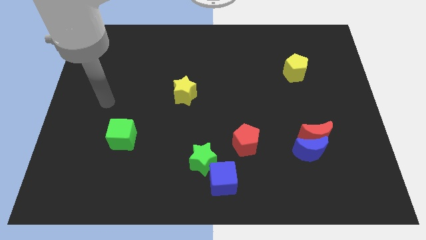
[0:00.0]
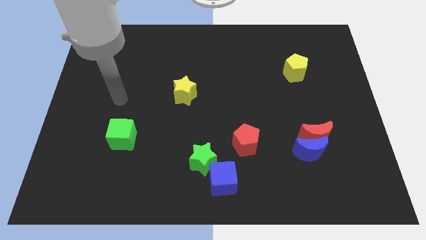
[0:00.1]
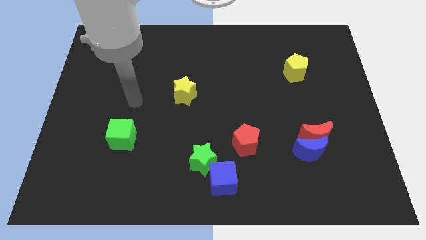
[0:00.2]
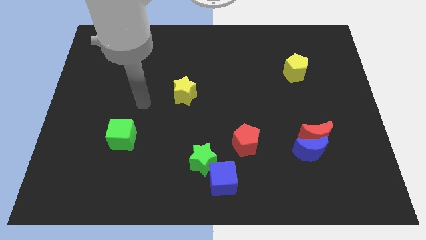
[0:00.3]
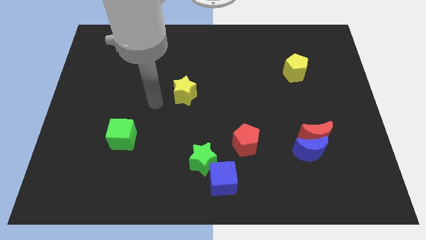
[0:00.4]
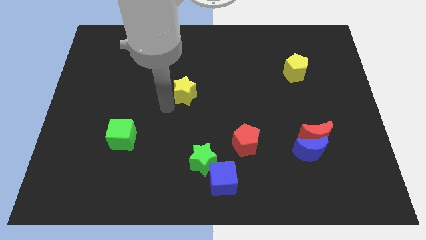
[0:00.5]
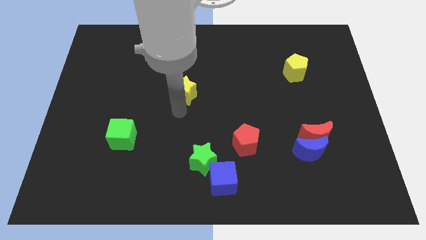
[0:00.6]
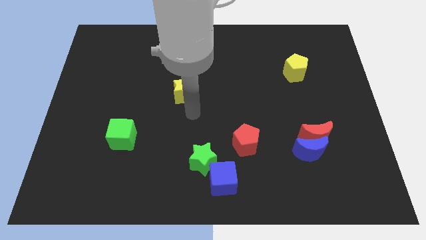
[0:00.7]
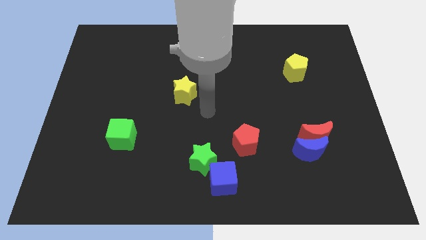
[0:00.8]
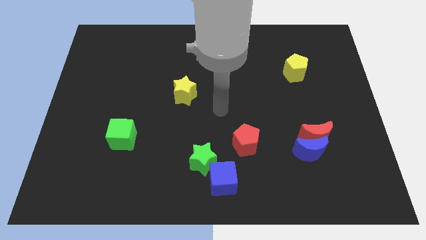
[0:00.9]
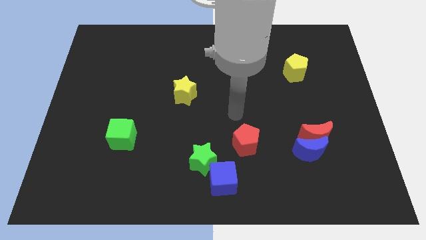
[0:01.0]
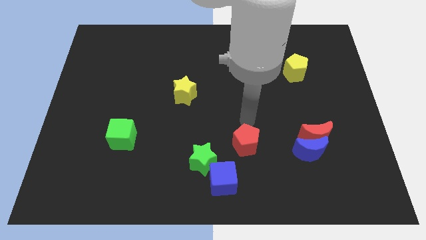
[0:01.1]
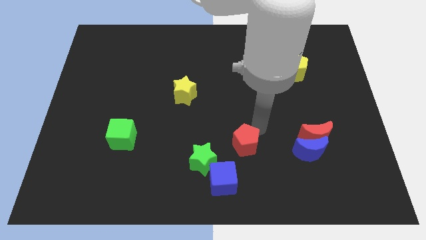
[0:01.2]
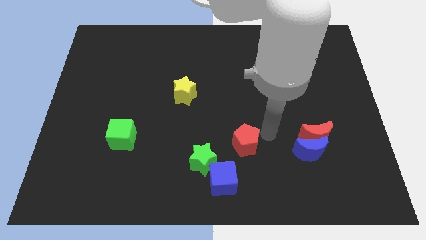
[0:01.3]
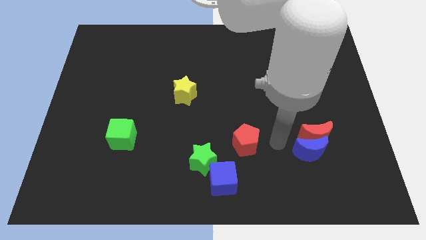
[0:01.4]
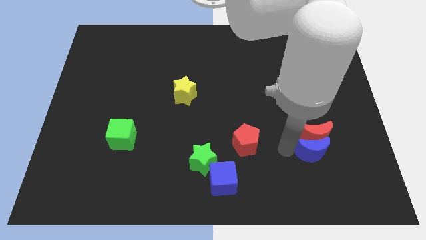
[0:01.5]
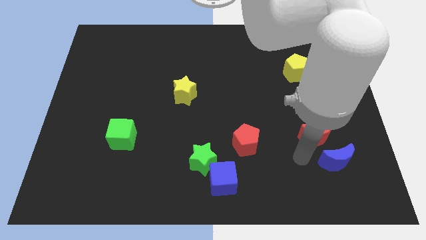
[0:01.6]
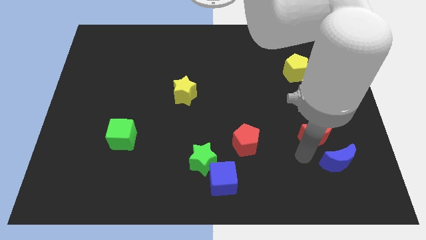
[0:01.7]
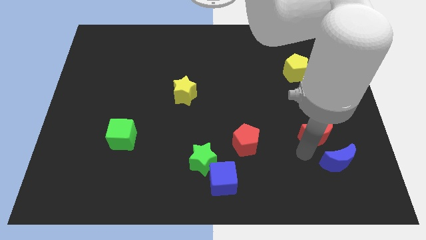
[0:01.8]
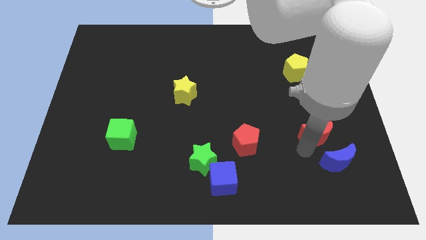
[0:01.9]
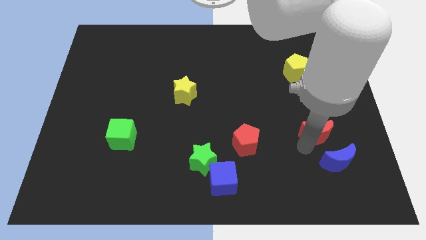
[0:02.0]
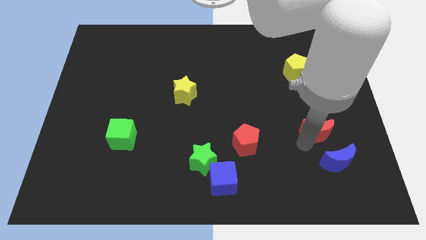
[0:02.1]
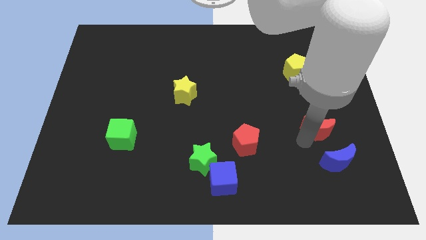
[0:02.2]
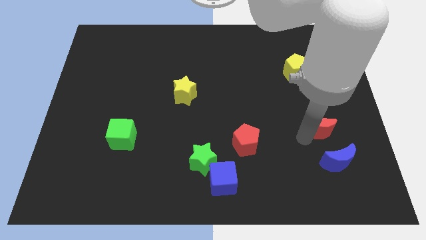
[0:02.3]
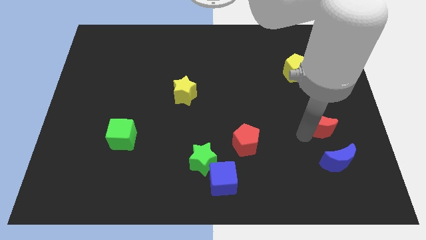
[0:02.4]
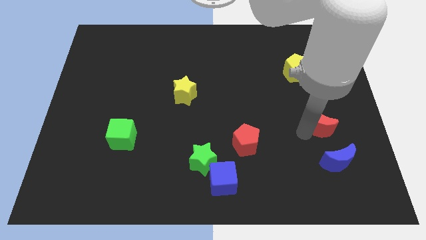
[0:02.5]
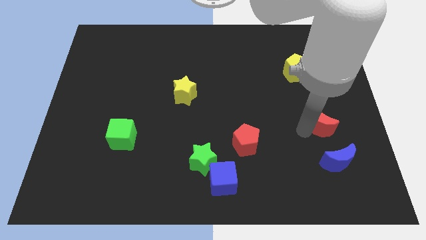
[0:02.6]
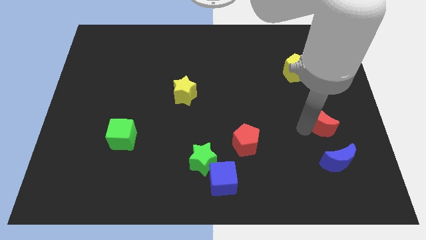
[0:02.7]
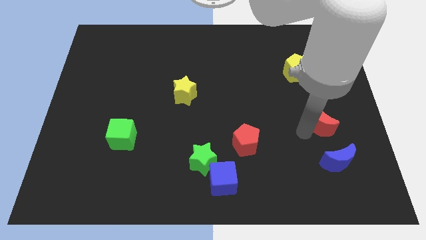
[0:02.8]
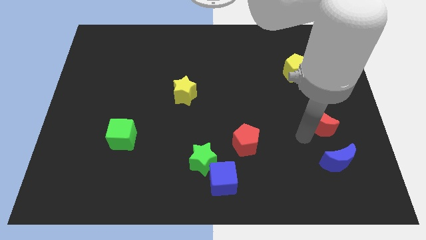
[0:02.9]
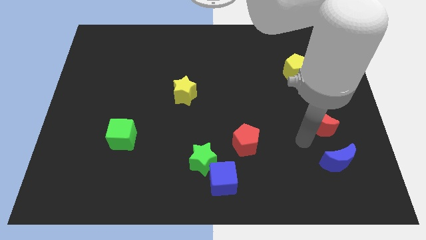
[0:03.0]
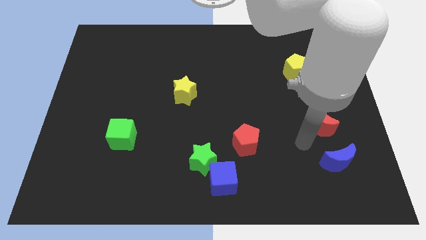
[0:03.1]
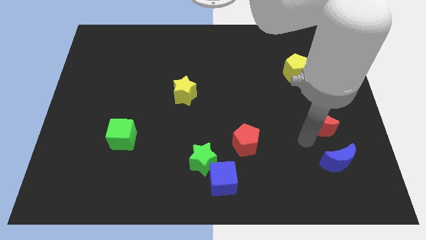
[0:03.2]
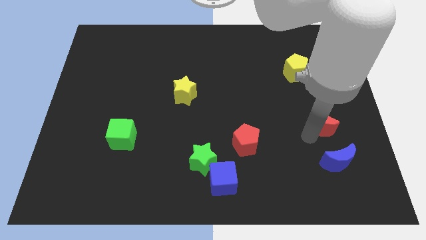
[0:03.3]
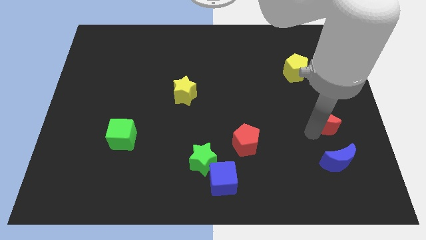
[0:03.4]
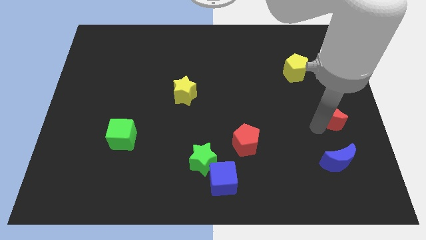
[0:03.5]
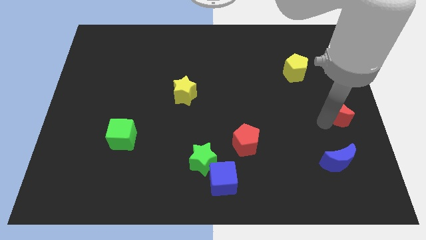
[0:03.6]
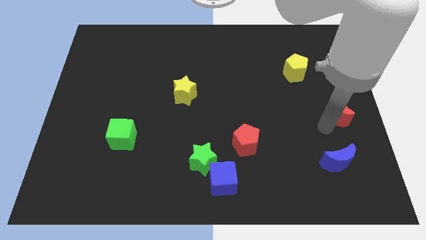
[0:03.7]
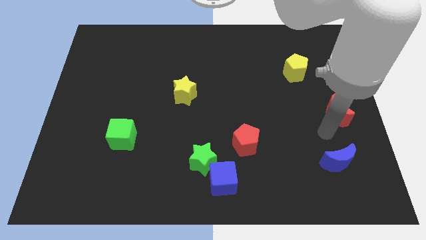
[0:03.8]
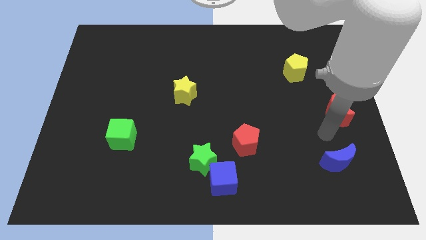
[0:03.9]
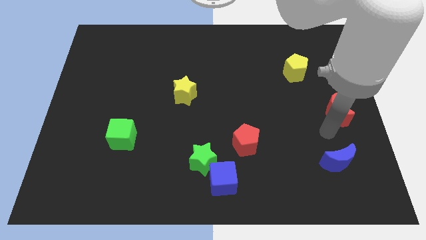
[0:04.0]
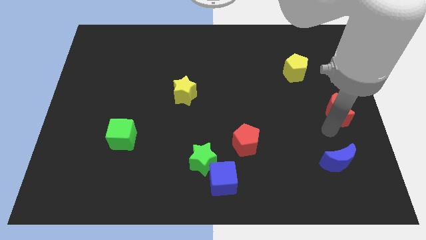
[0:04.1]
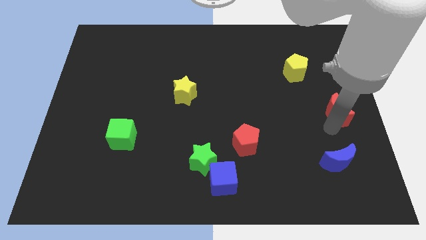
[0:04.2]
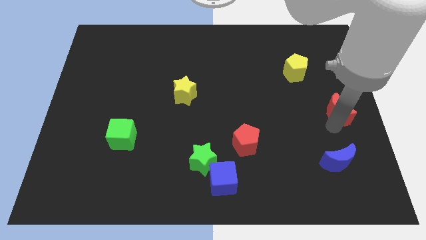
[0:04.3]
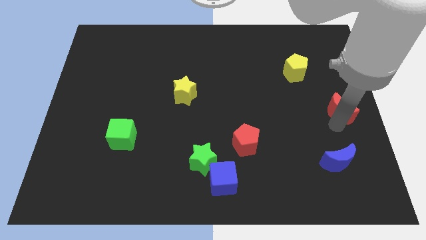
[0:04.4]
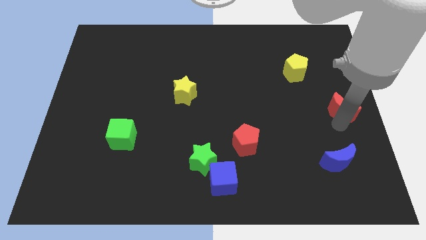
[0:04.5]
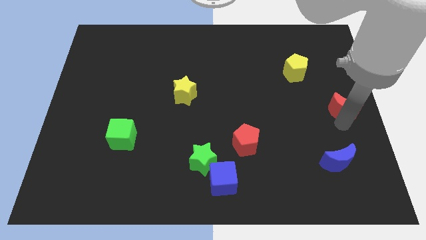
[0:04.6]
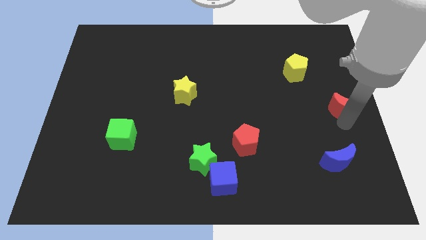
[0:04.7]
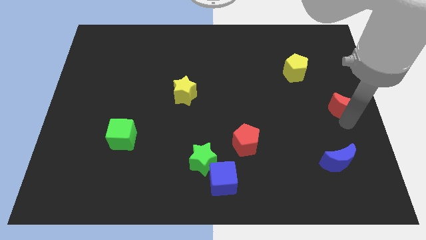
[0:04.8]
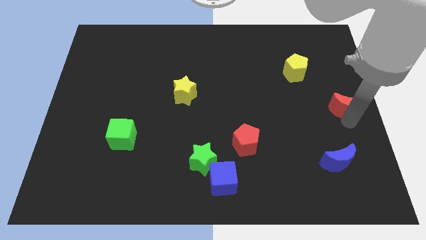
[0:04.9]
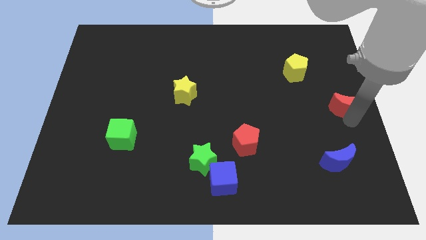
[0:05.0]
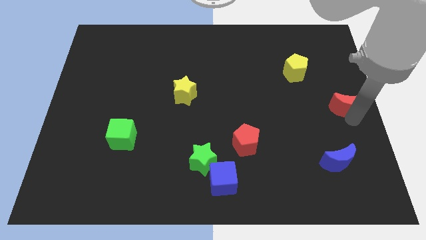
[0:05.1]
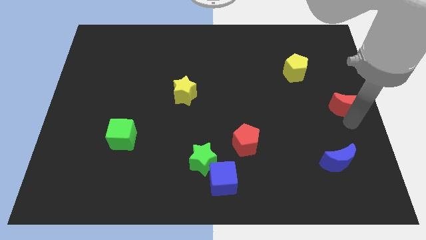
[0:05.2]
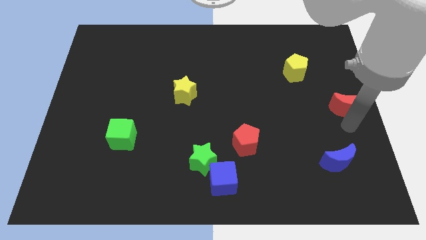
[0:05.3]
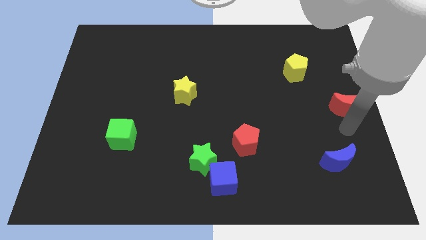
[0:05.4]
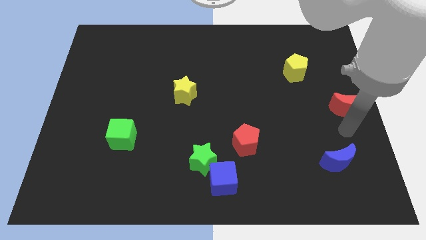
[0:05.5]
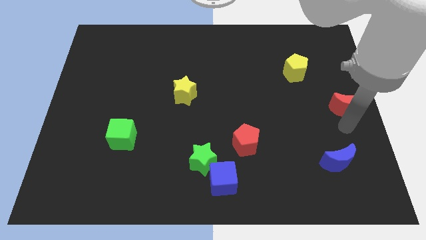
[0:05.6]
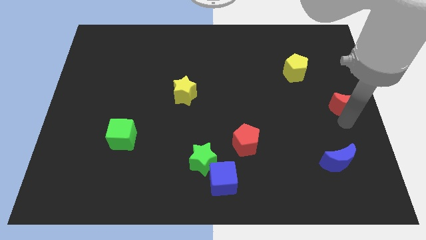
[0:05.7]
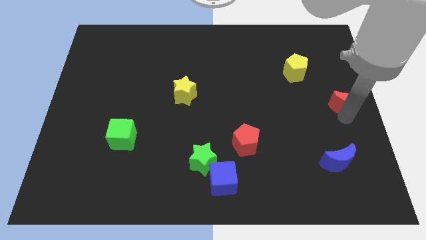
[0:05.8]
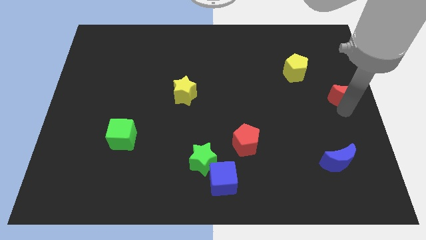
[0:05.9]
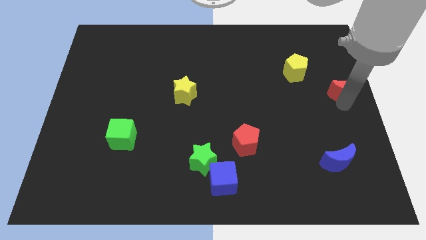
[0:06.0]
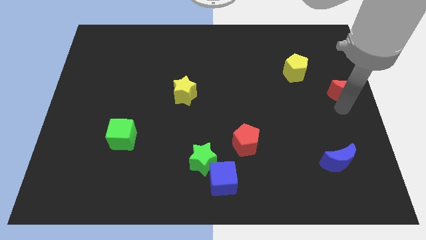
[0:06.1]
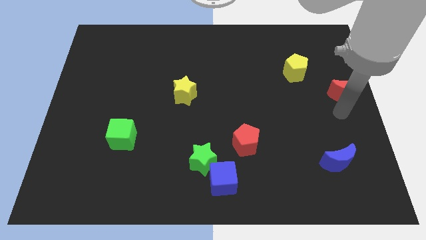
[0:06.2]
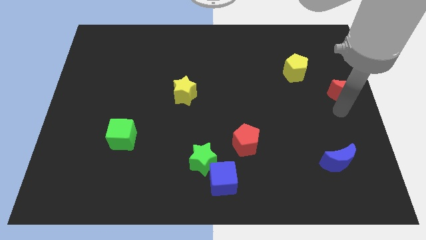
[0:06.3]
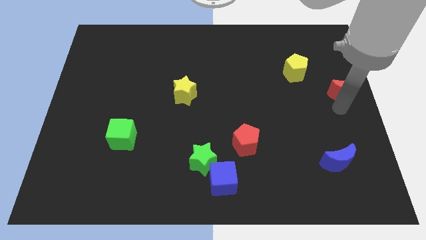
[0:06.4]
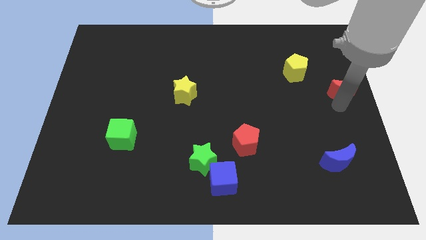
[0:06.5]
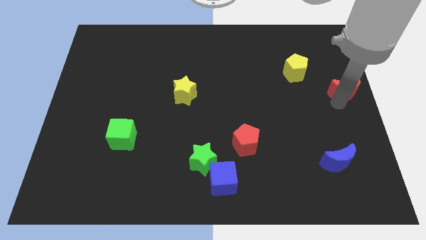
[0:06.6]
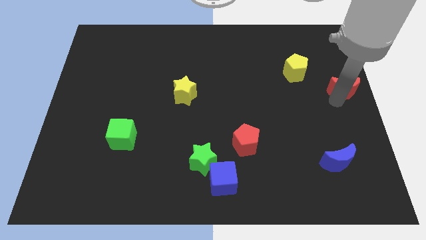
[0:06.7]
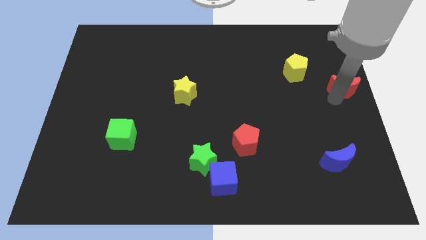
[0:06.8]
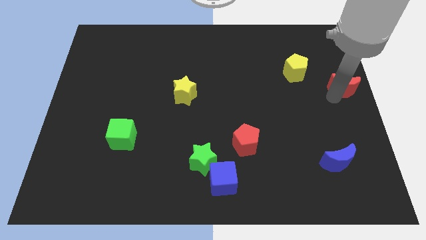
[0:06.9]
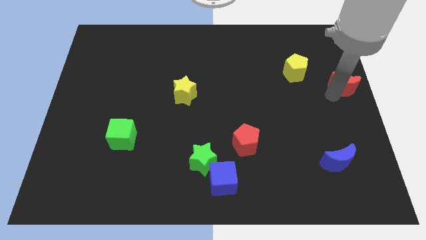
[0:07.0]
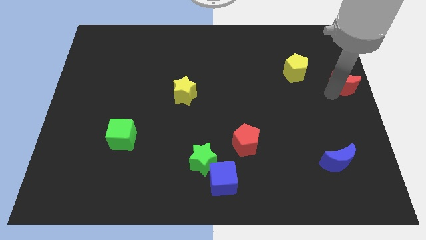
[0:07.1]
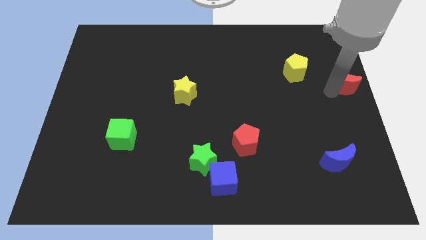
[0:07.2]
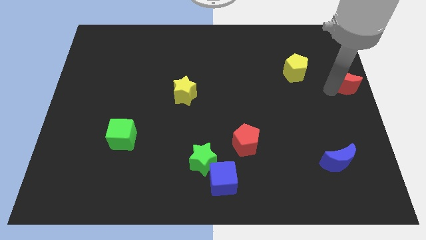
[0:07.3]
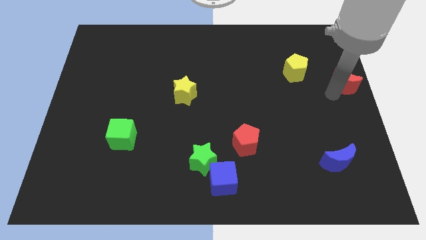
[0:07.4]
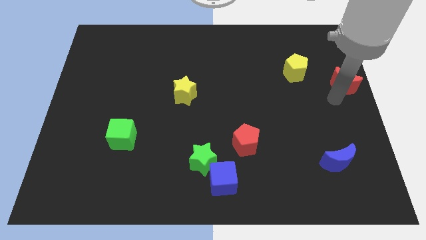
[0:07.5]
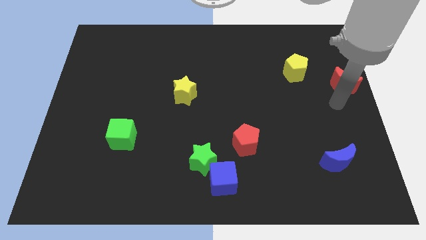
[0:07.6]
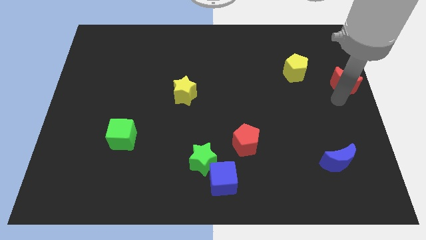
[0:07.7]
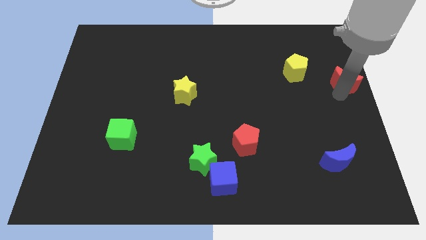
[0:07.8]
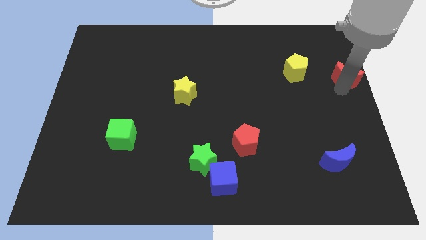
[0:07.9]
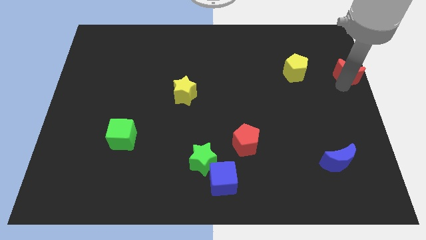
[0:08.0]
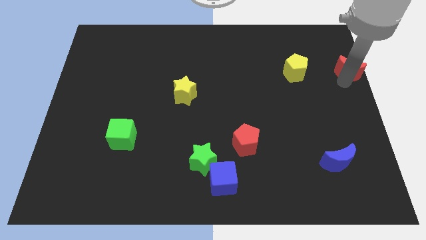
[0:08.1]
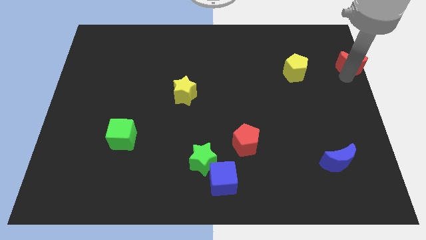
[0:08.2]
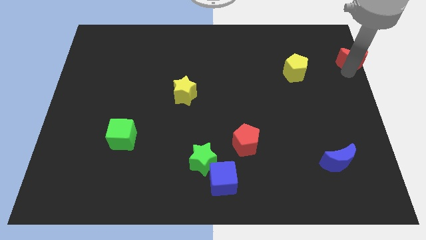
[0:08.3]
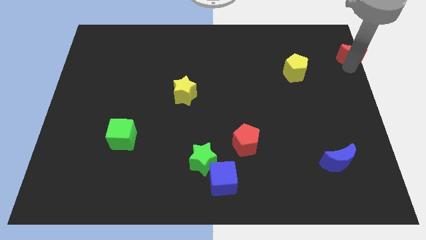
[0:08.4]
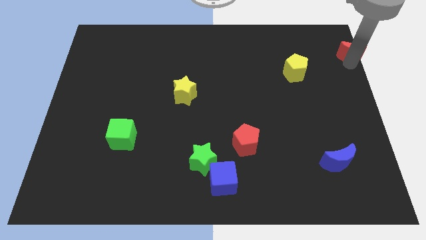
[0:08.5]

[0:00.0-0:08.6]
slide the red moon to the top right
